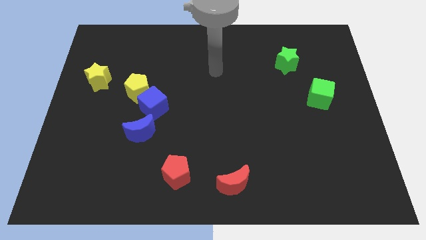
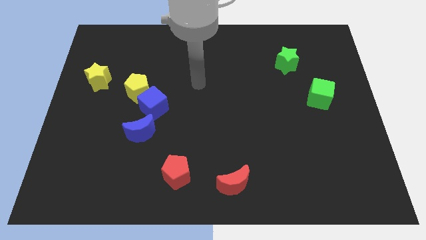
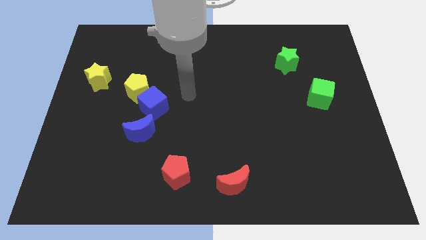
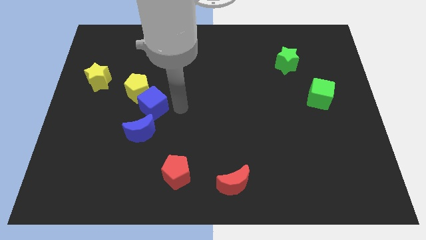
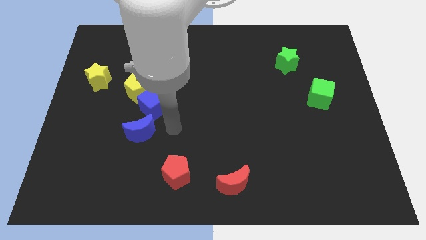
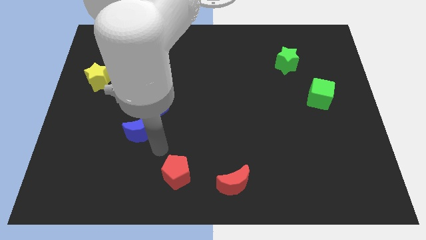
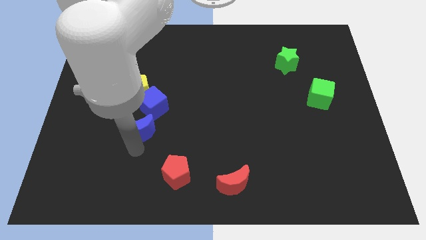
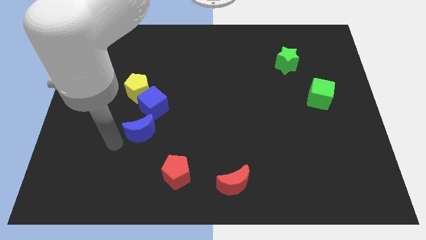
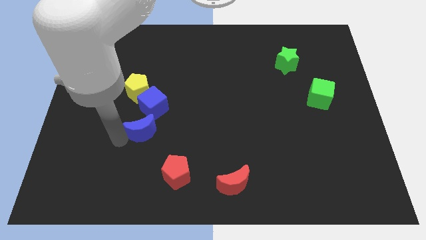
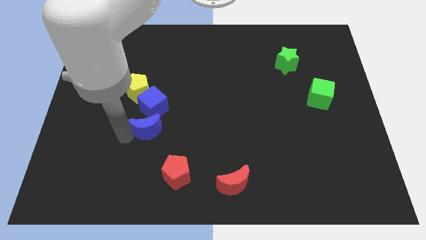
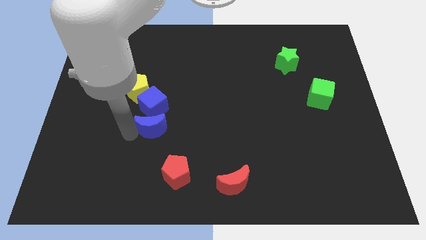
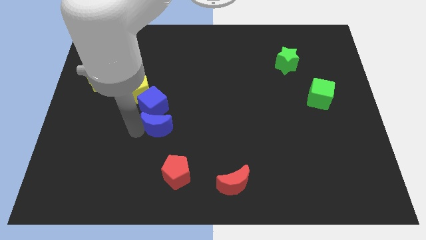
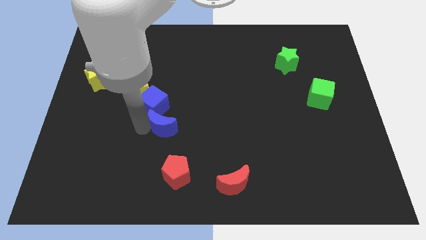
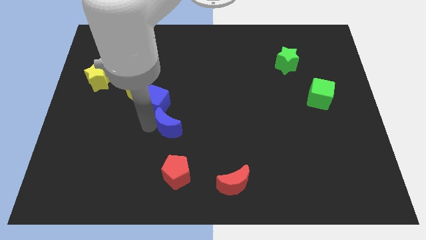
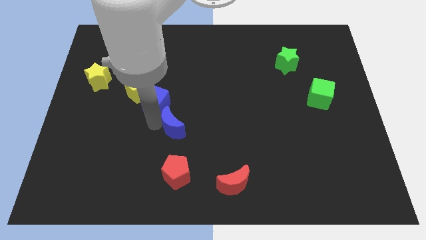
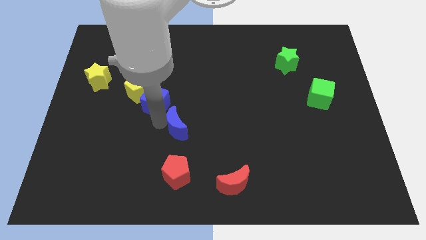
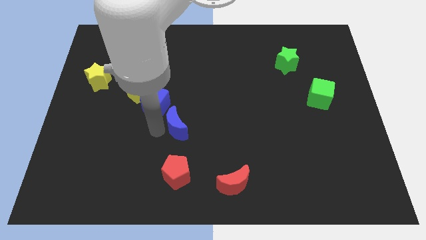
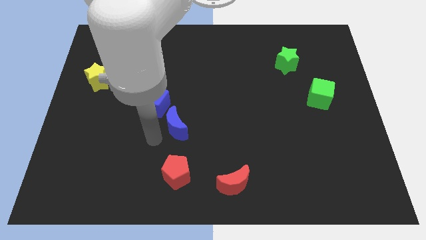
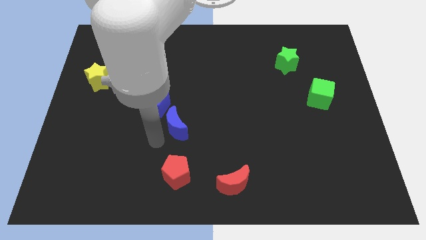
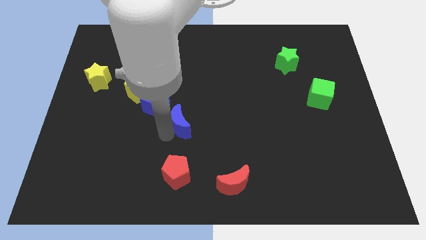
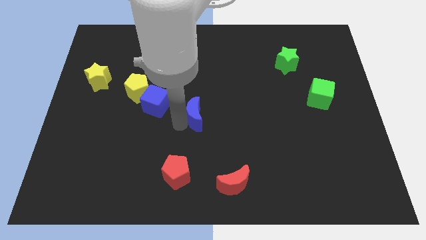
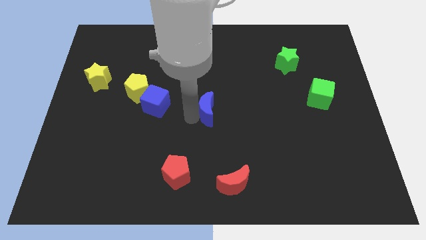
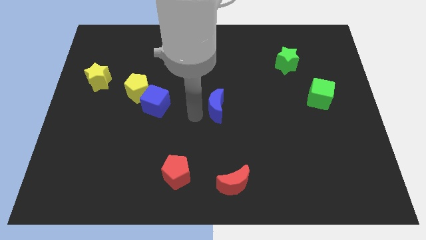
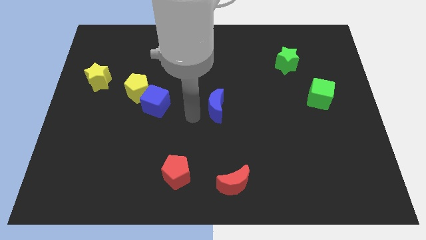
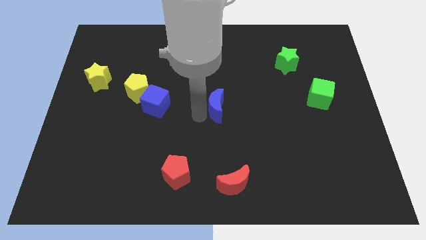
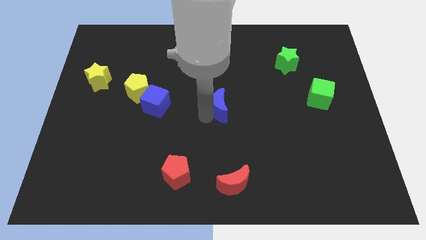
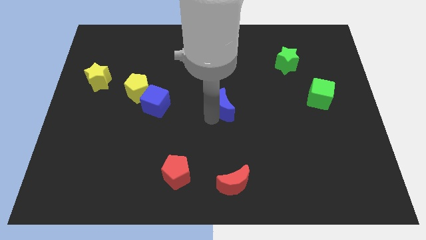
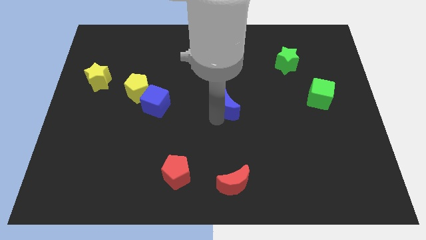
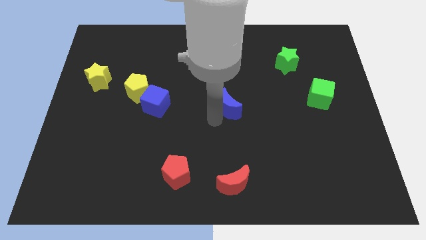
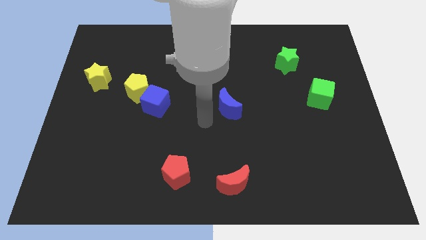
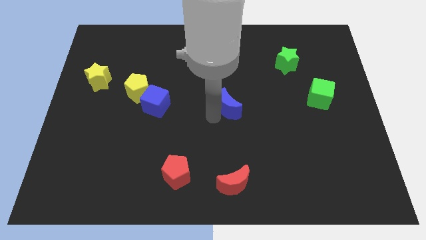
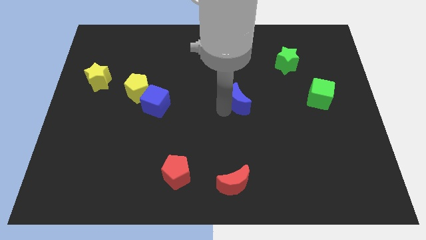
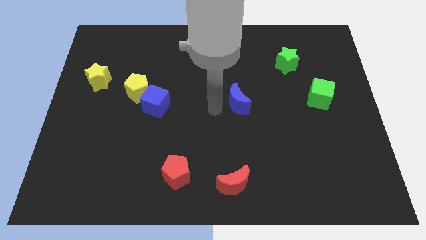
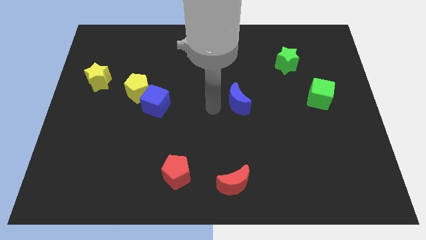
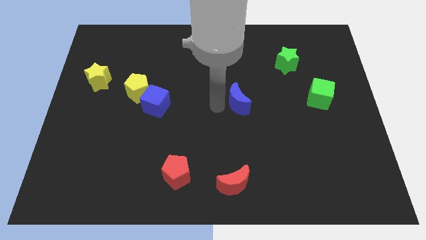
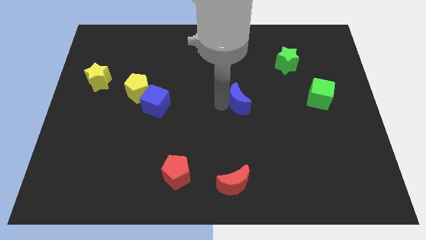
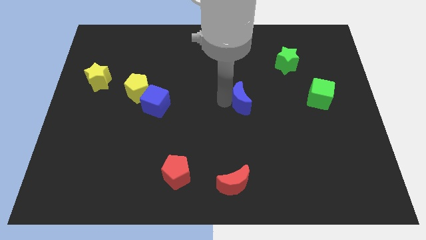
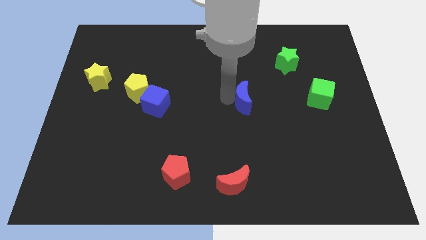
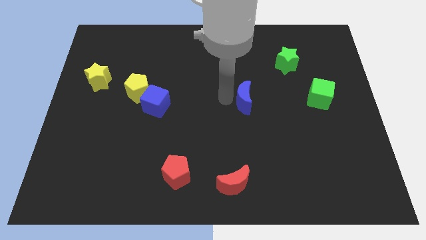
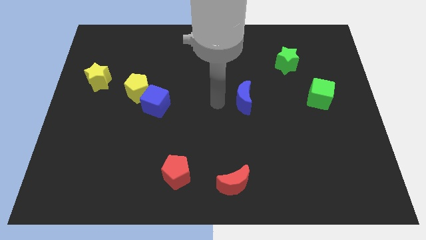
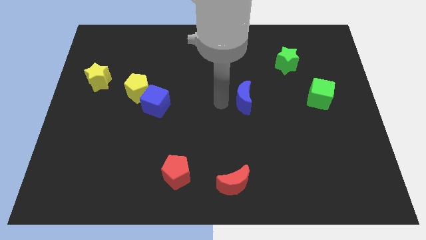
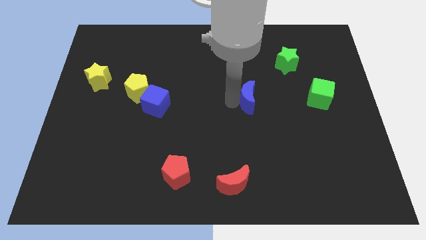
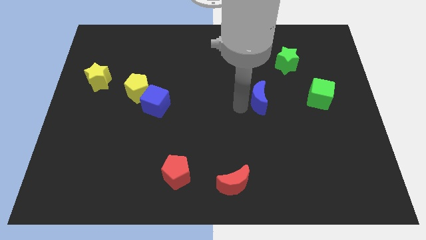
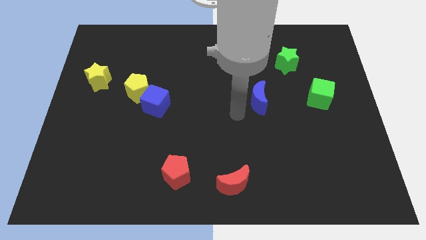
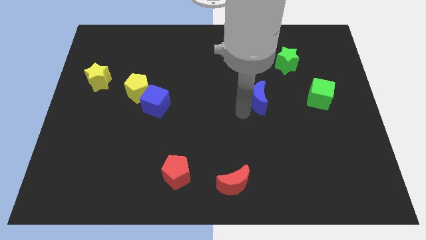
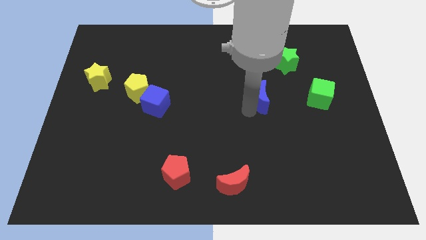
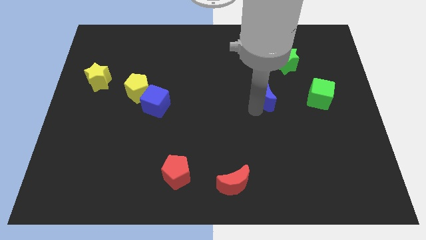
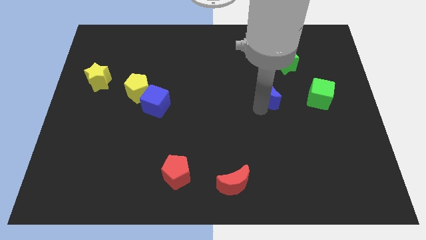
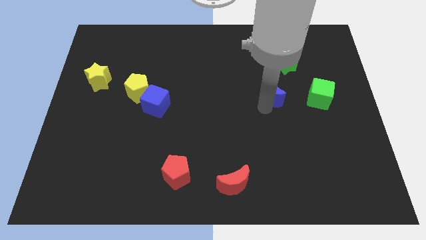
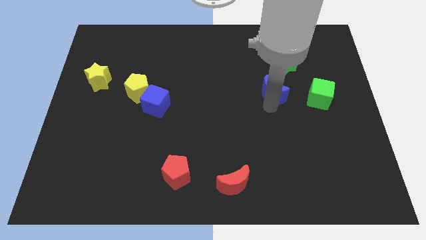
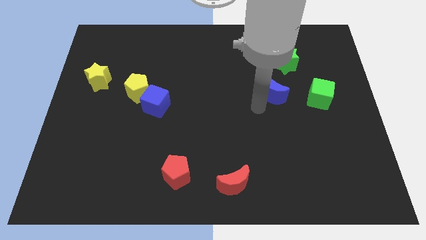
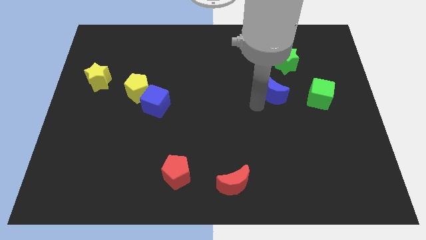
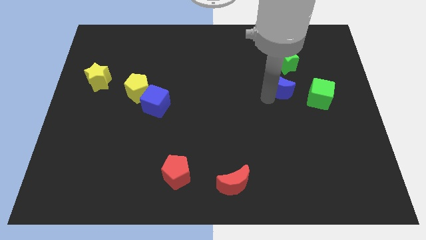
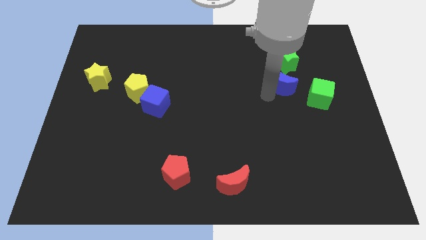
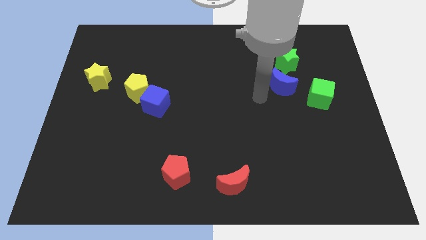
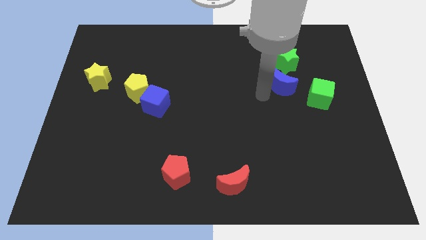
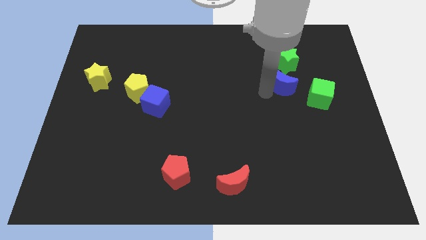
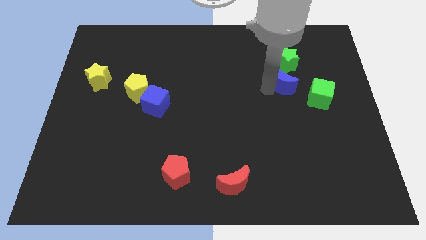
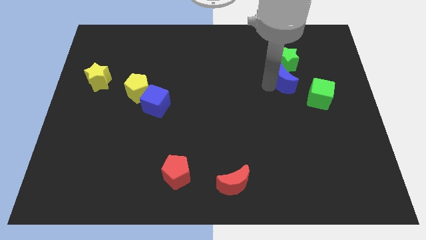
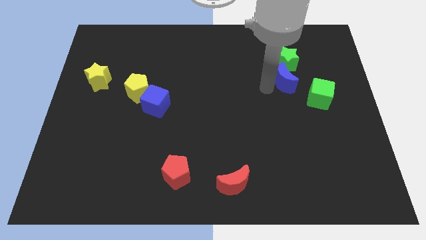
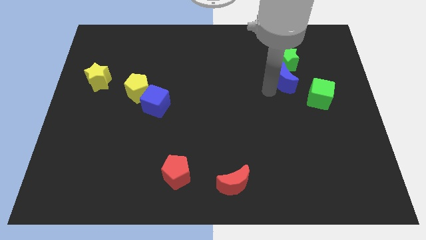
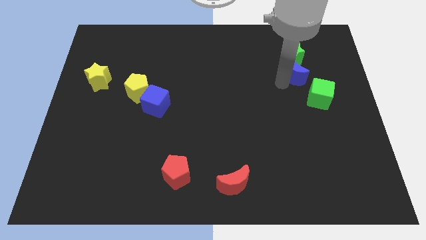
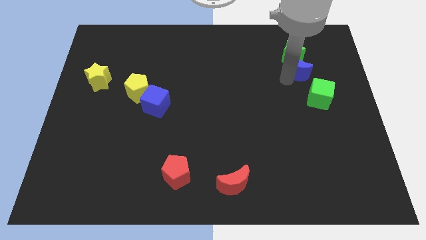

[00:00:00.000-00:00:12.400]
move the blue moon to the top side of the green cube
